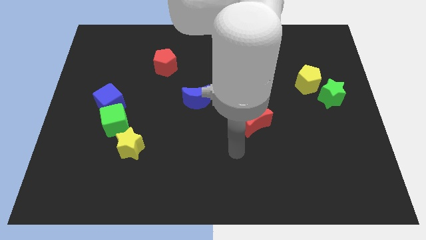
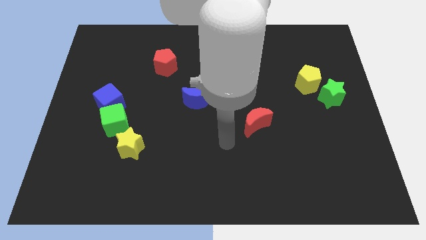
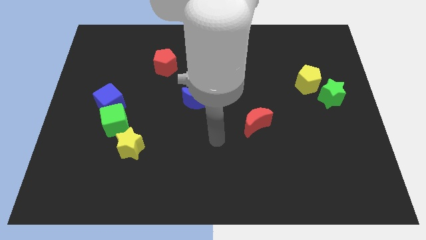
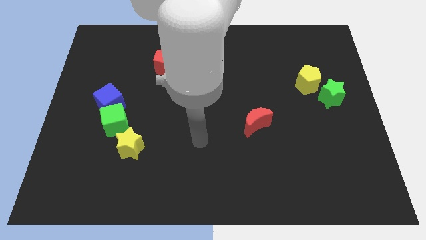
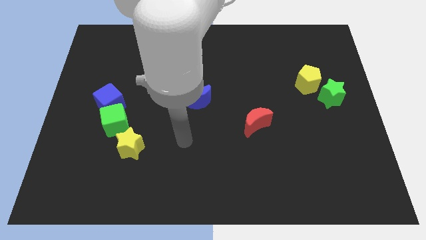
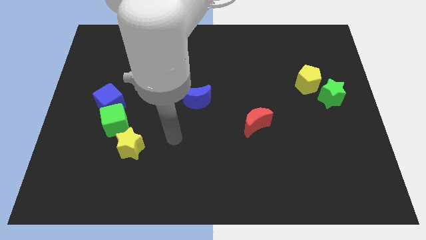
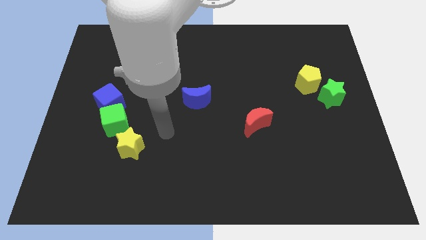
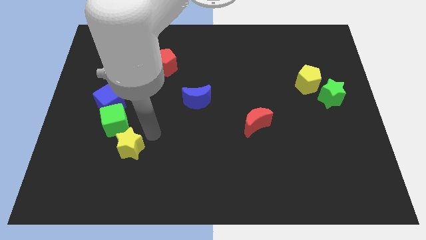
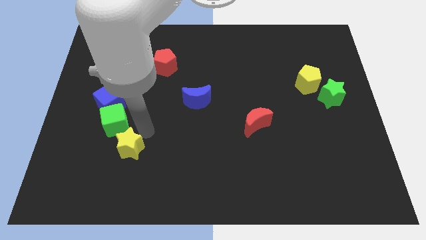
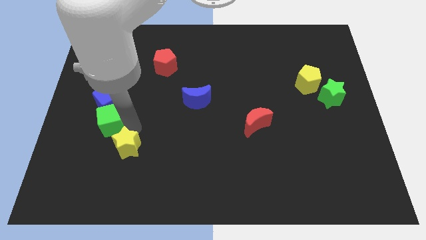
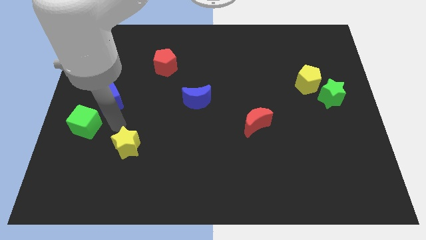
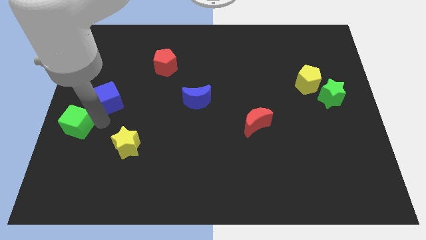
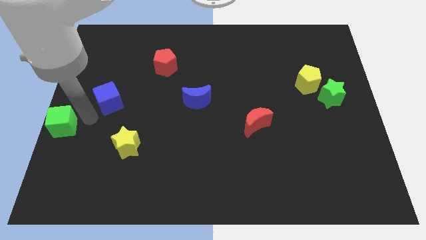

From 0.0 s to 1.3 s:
separate the blue cube from the green cube

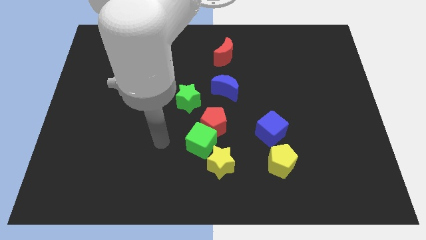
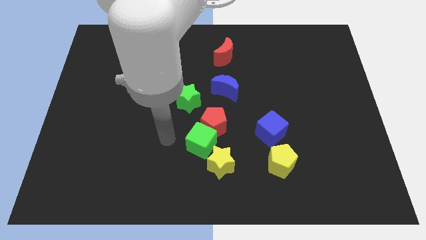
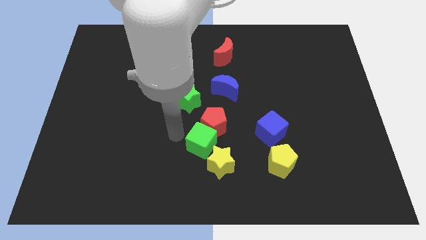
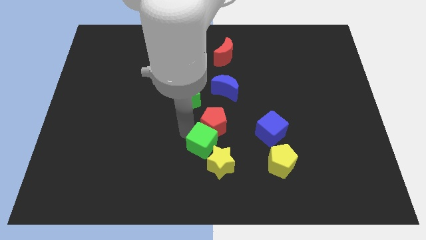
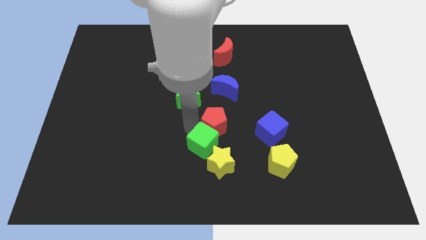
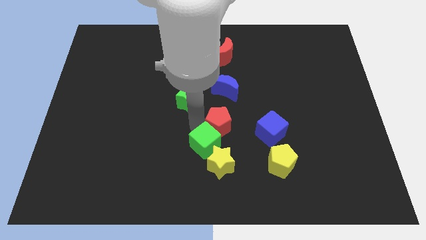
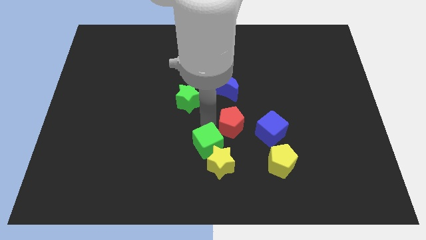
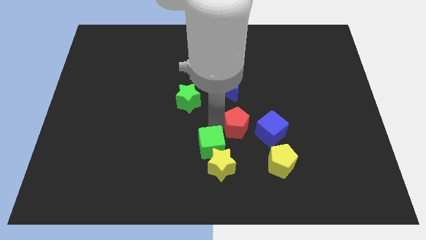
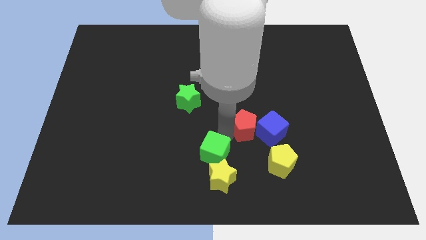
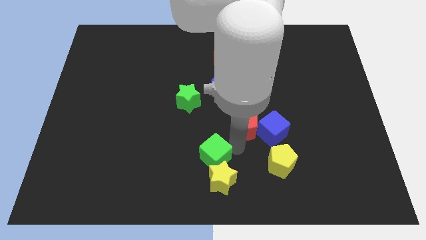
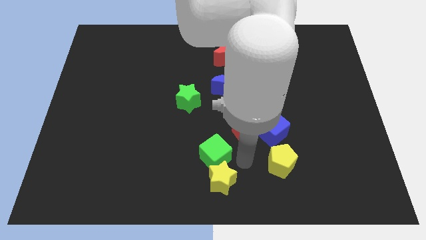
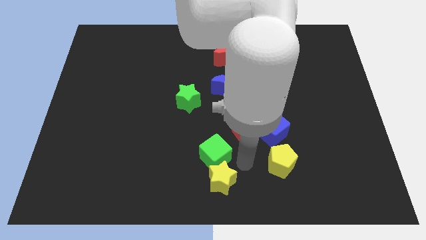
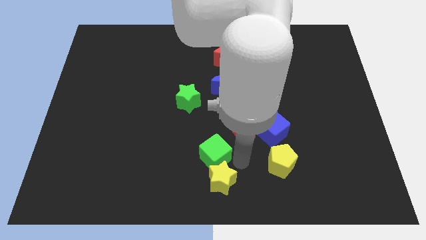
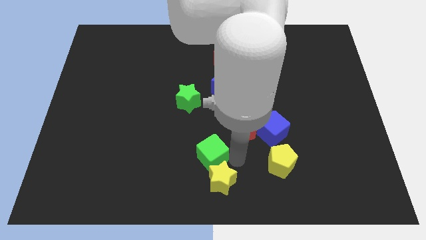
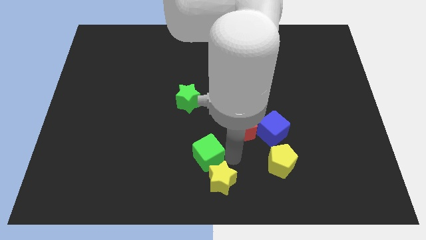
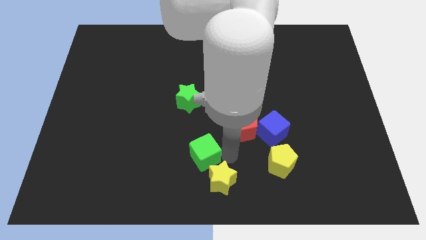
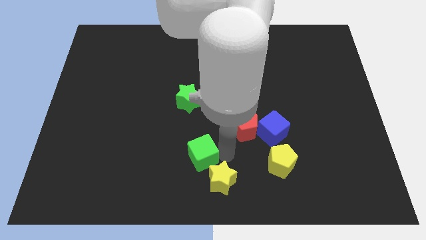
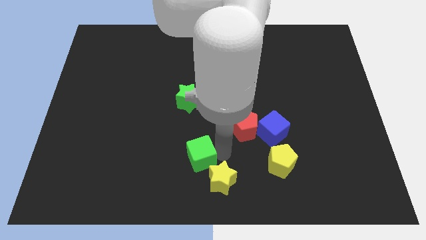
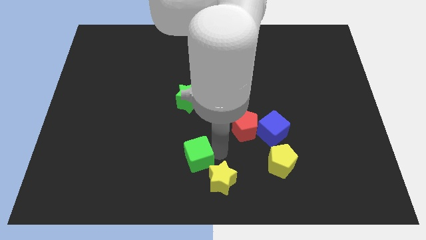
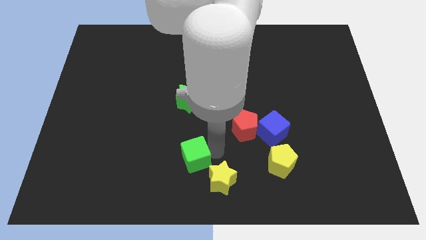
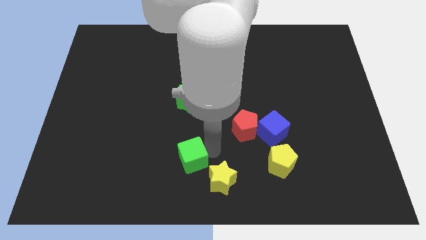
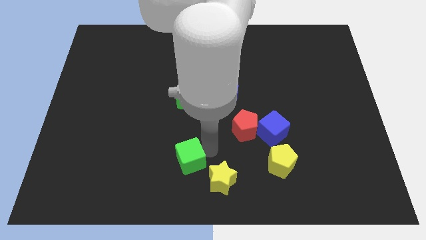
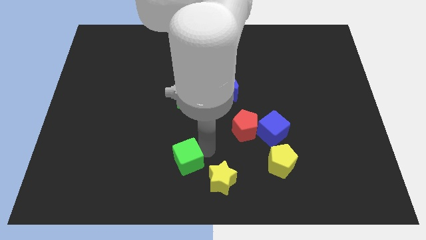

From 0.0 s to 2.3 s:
pull the green cube apart from the red pentagon and yellow star

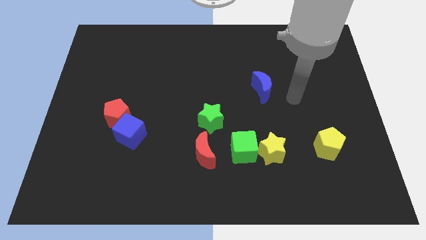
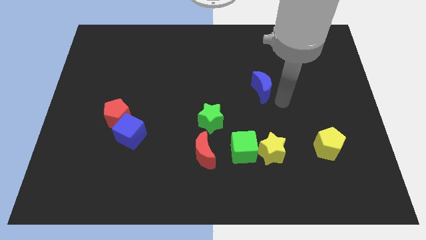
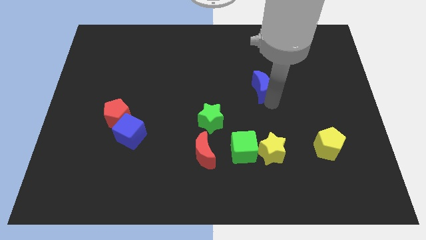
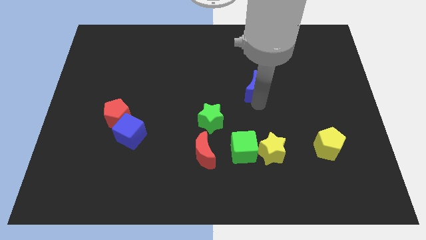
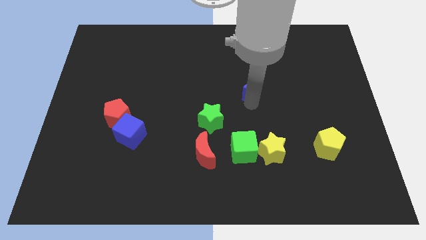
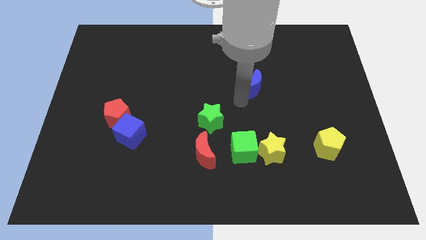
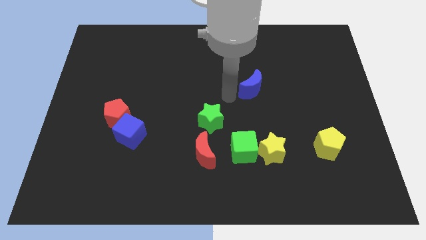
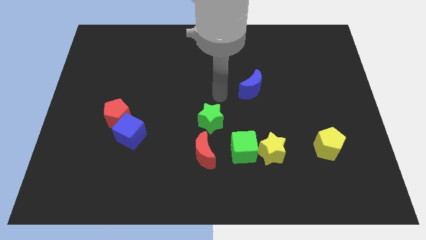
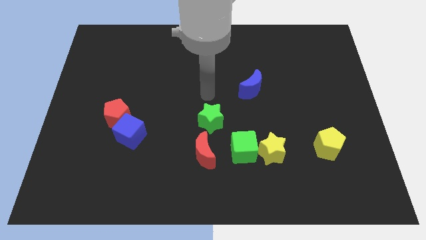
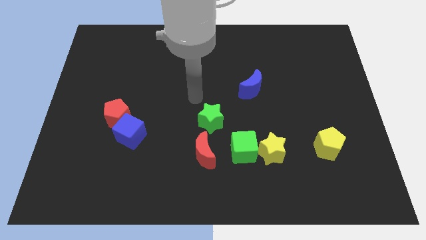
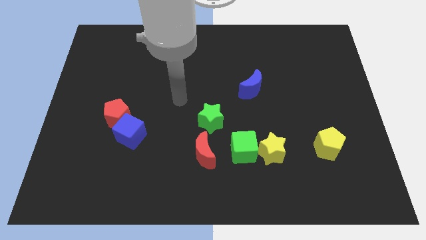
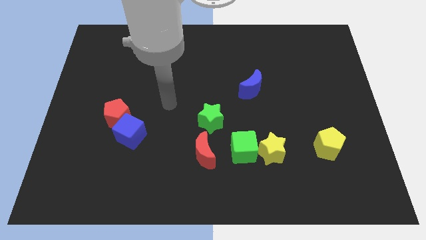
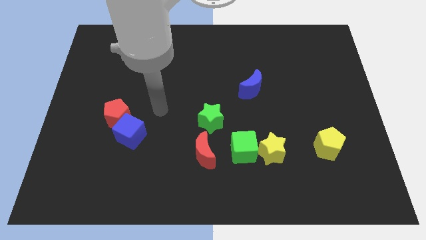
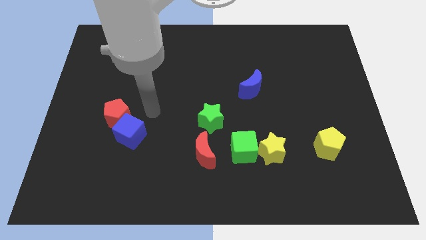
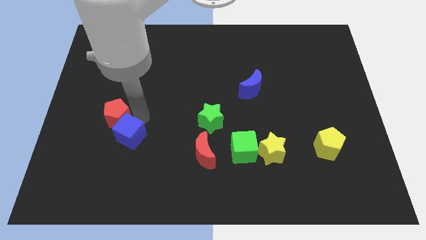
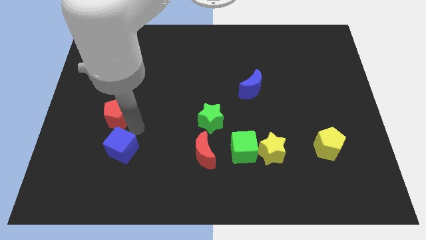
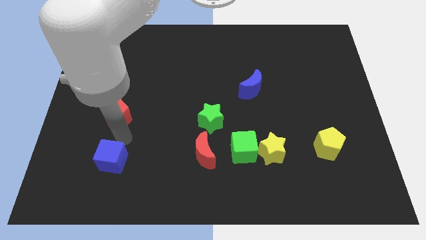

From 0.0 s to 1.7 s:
pull the red pentagon apart from the blue cube

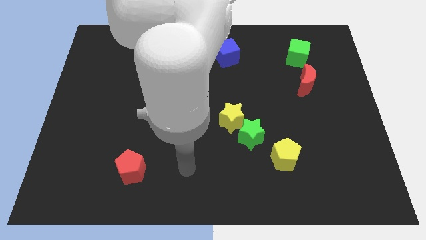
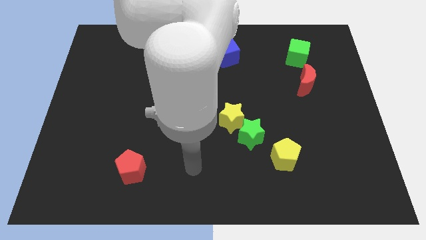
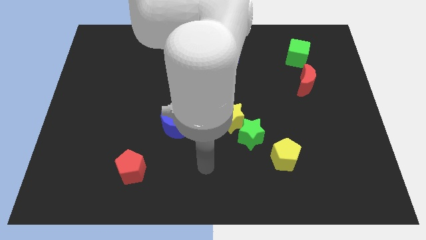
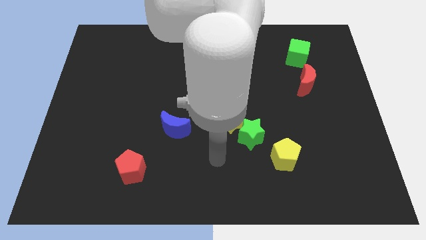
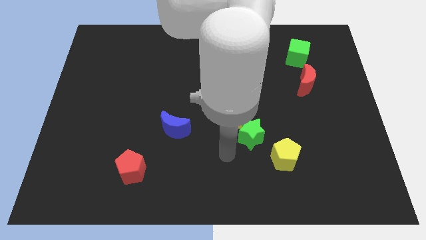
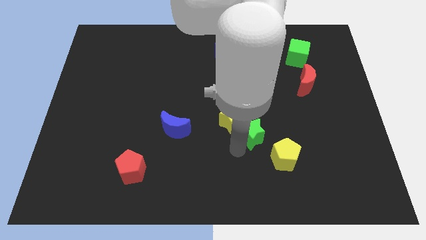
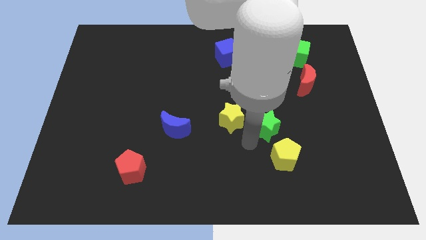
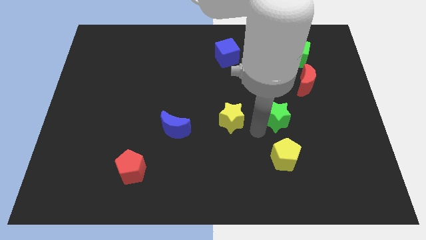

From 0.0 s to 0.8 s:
pull the yellow star apart from the green star

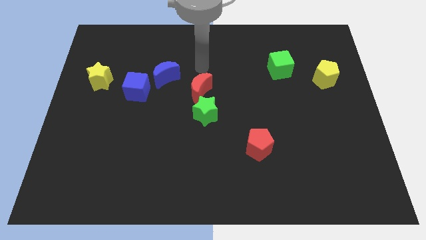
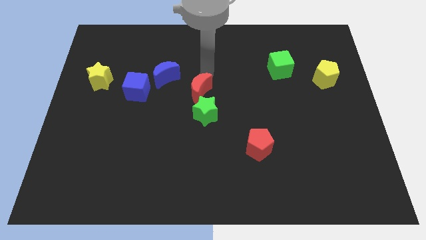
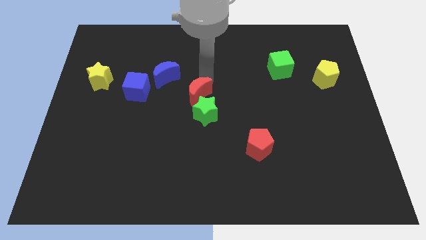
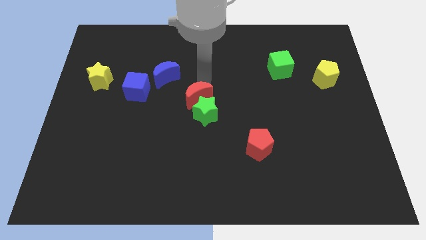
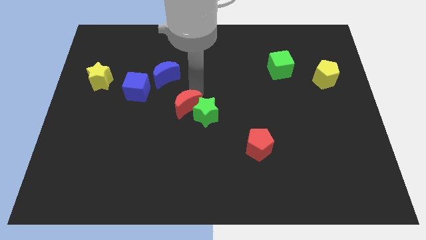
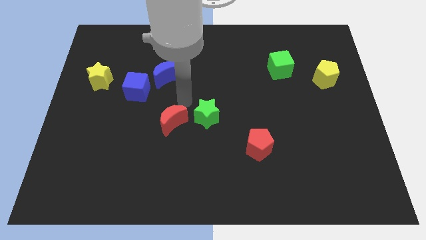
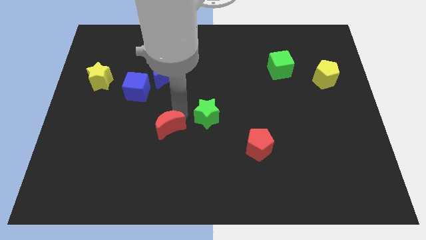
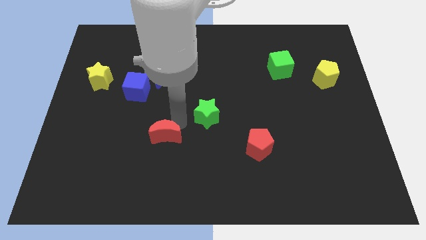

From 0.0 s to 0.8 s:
separate the green star from the red moon

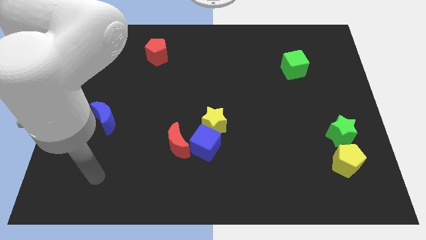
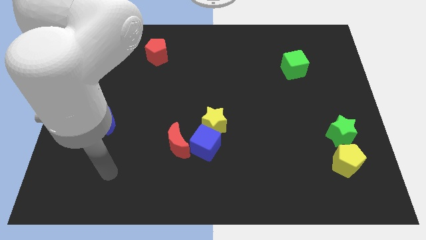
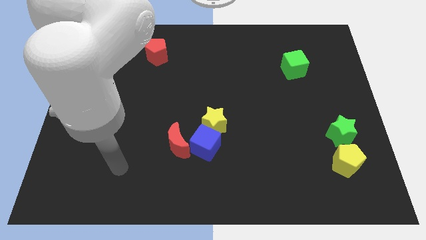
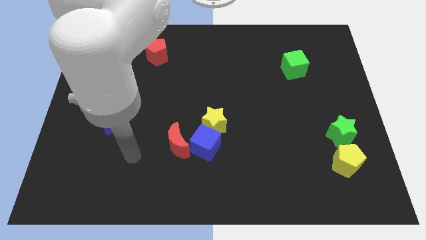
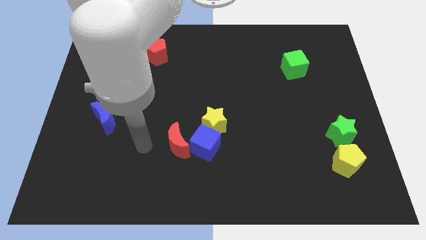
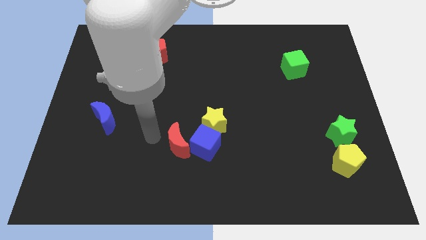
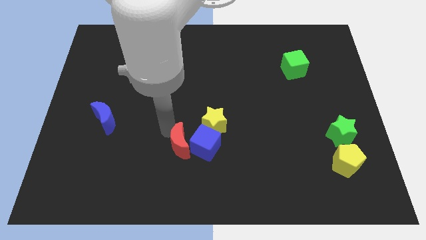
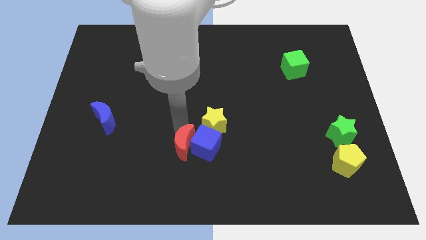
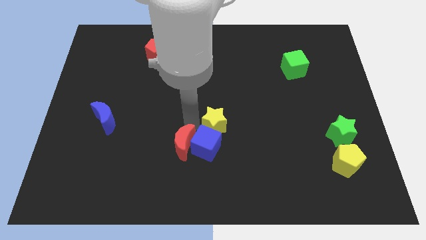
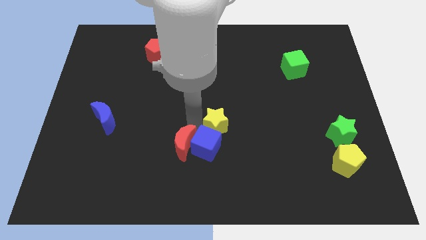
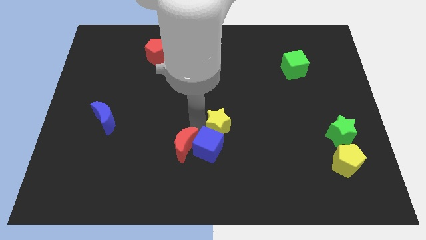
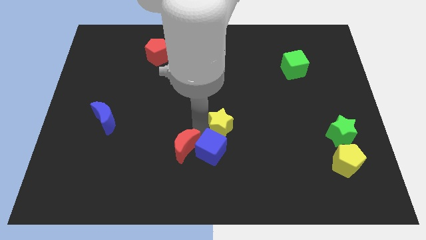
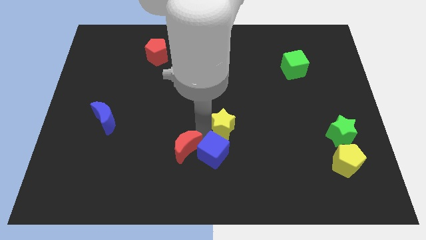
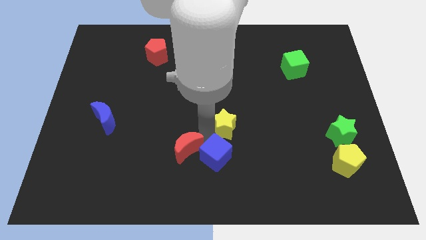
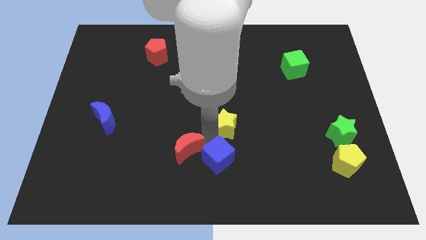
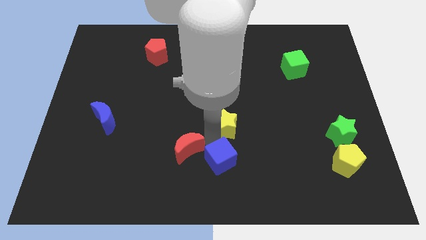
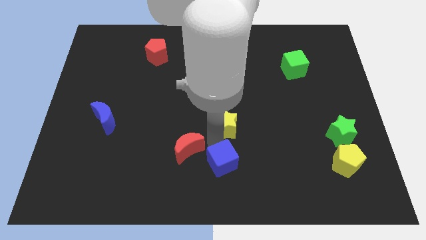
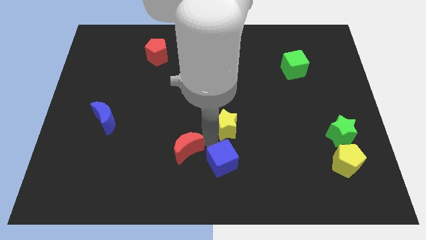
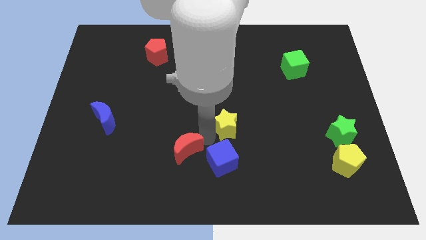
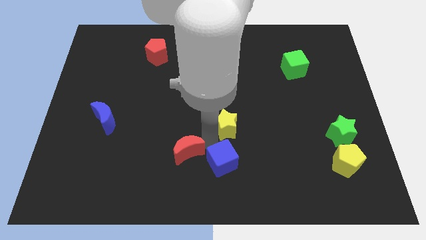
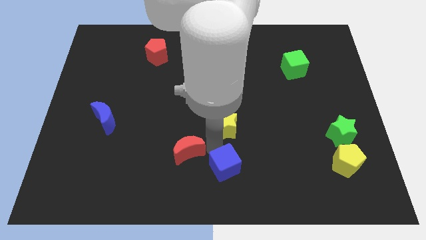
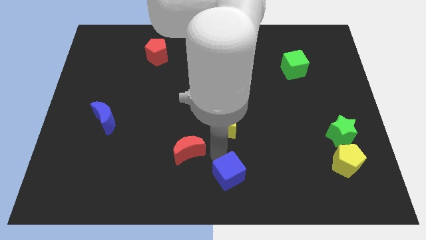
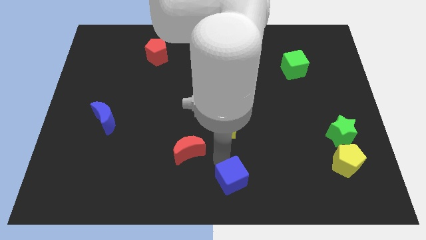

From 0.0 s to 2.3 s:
move the blue cube away from the yellow star and red moon

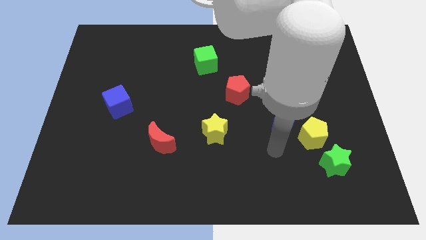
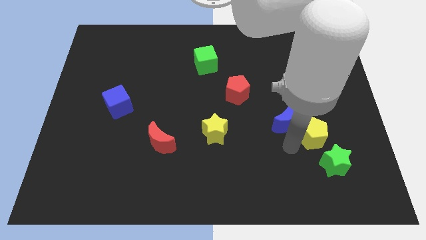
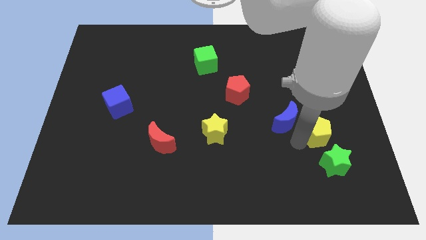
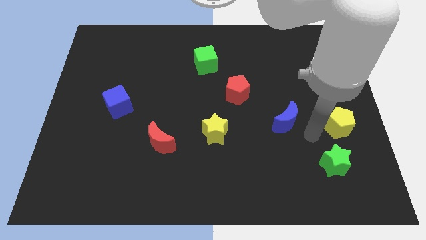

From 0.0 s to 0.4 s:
separate the blue moon from the yellow pentagon
